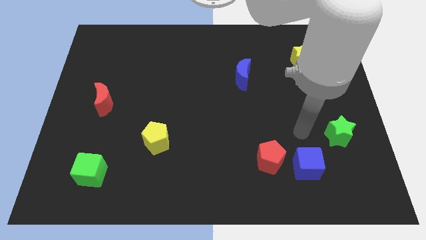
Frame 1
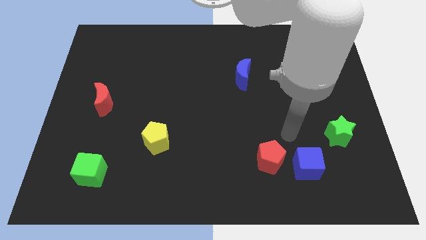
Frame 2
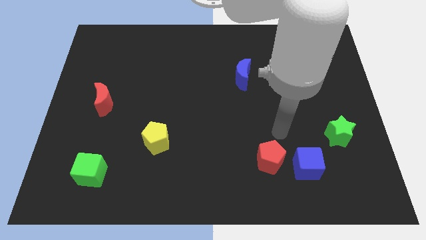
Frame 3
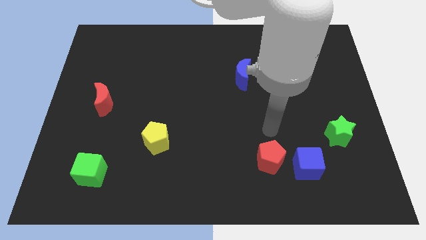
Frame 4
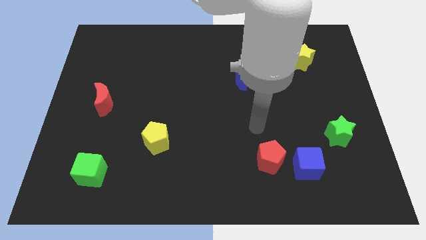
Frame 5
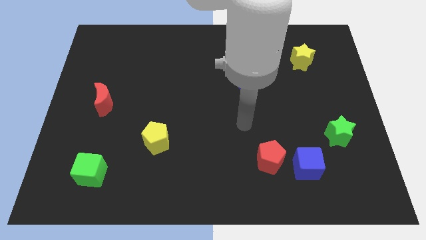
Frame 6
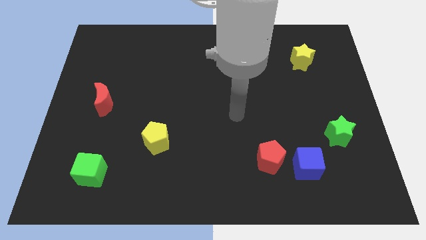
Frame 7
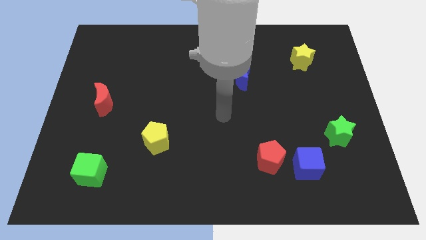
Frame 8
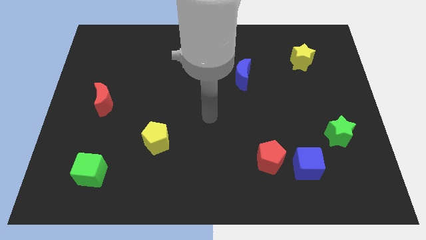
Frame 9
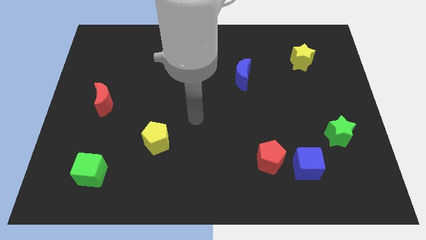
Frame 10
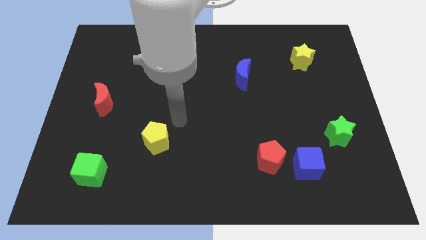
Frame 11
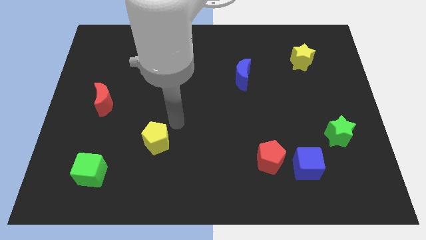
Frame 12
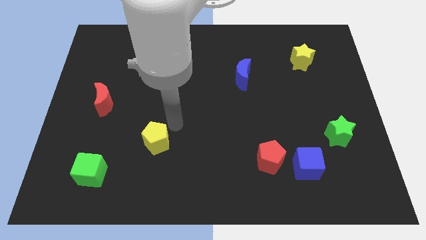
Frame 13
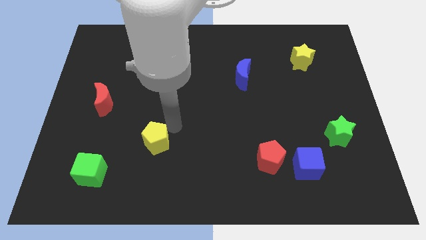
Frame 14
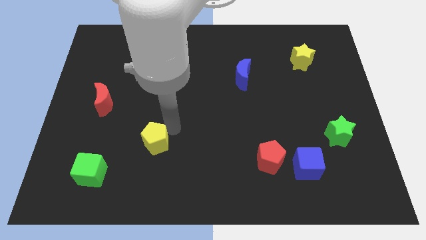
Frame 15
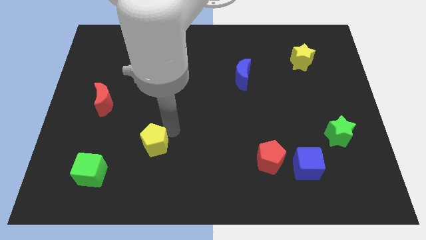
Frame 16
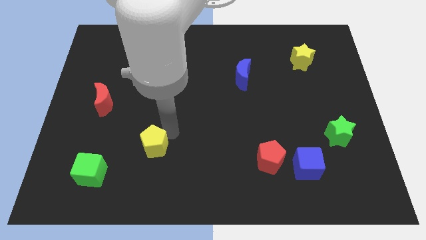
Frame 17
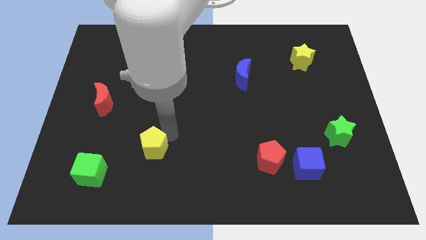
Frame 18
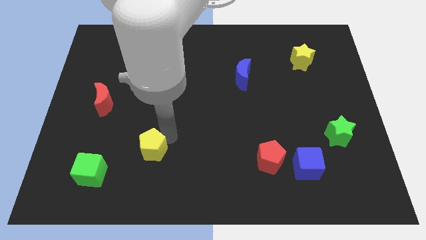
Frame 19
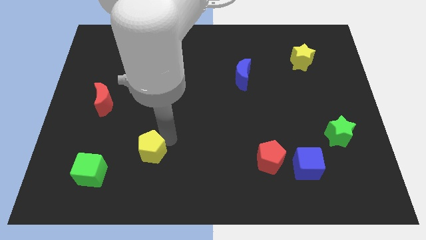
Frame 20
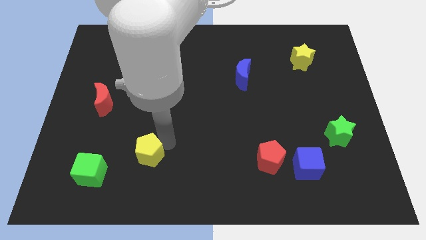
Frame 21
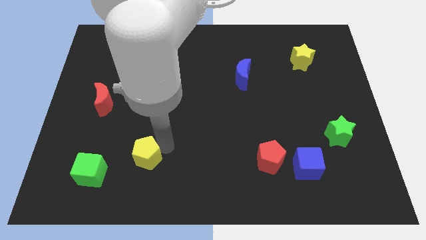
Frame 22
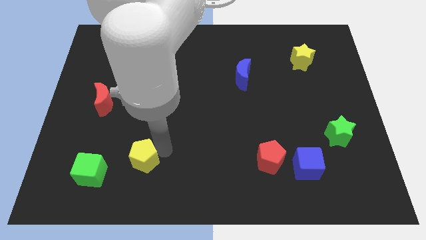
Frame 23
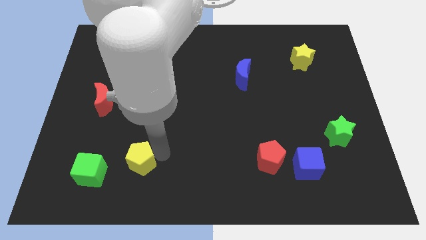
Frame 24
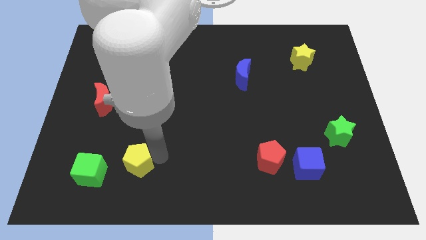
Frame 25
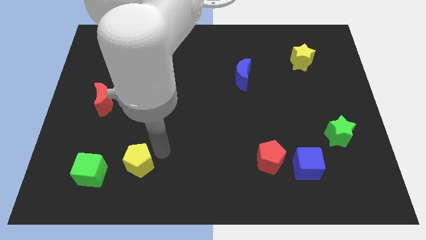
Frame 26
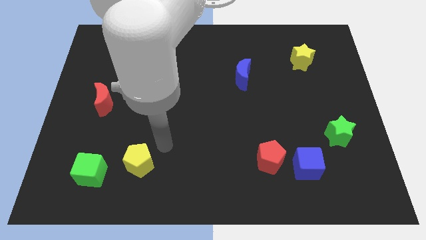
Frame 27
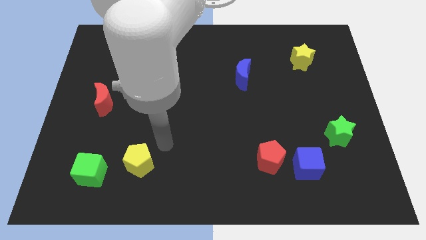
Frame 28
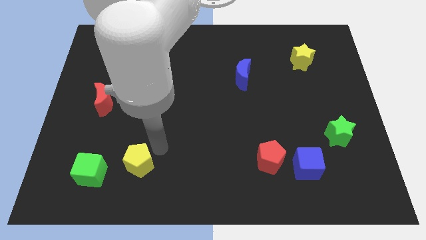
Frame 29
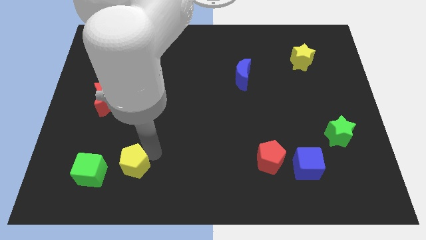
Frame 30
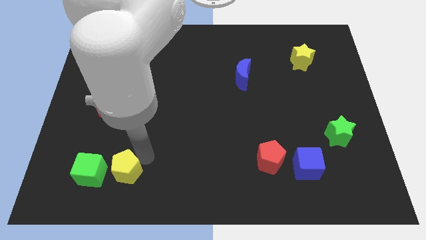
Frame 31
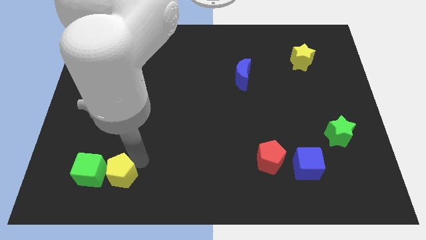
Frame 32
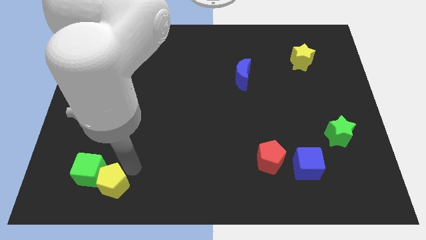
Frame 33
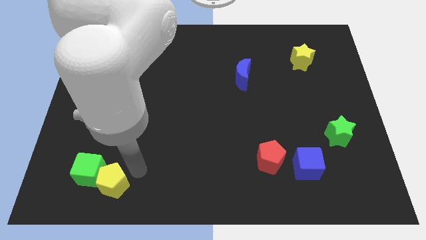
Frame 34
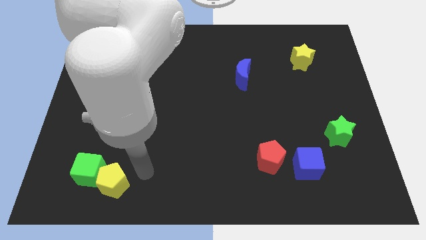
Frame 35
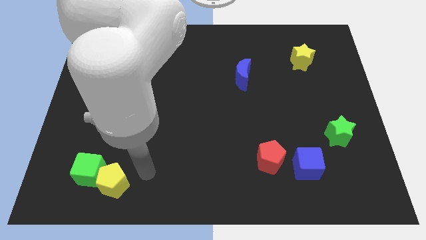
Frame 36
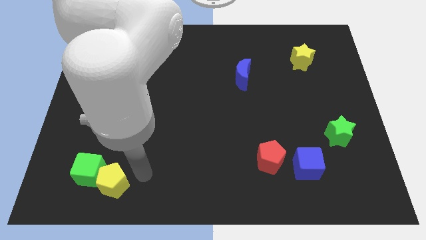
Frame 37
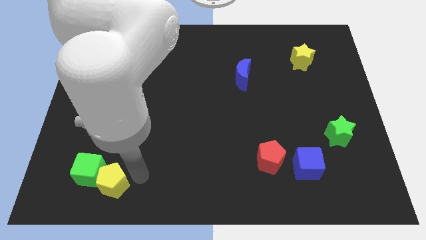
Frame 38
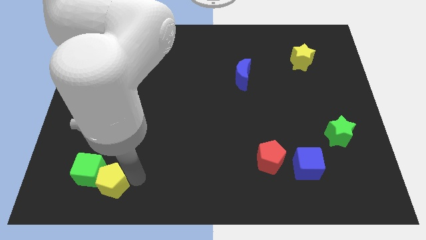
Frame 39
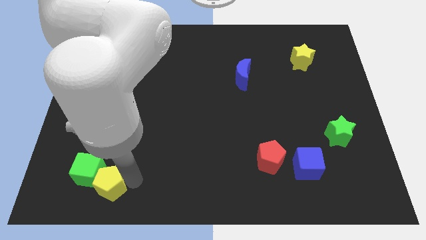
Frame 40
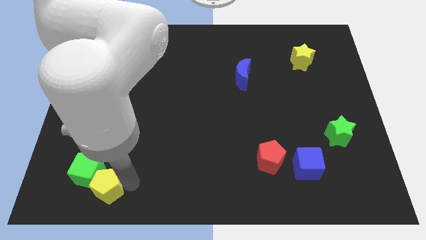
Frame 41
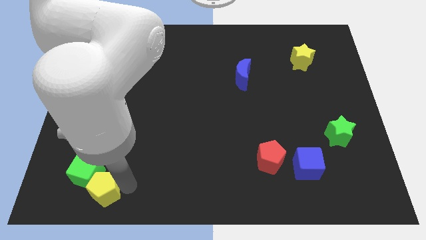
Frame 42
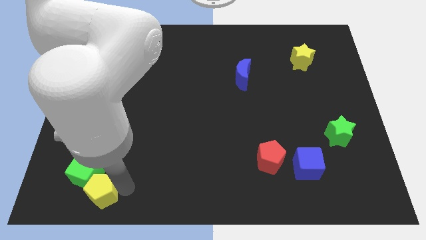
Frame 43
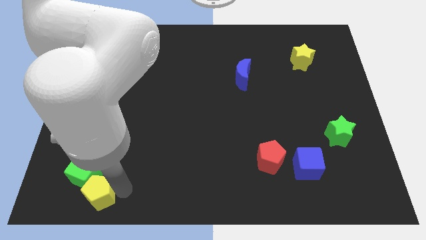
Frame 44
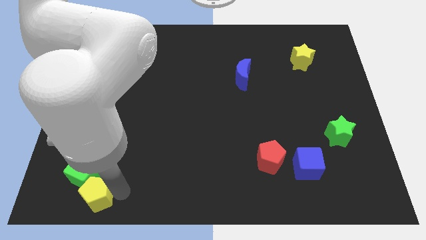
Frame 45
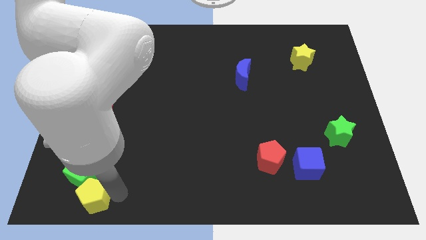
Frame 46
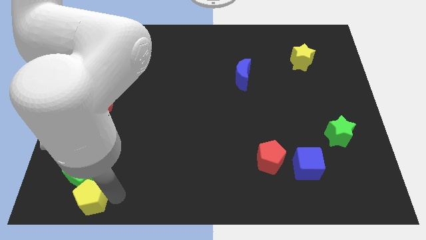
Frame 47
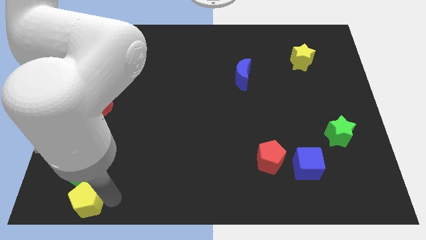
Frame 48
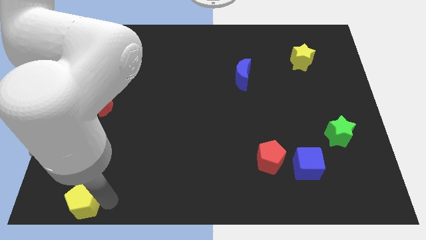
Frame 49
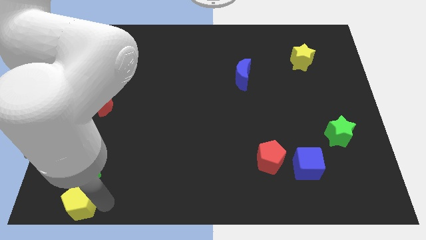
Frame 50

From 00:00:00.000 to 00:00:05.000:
put the yellow pentagon to the bottom left of the board

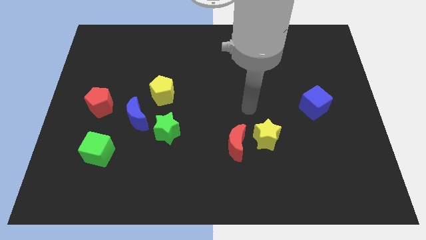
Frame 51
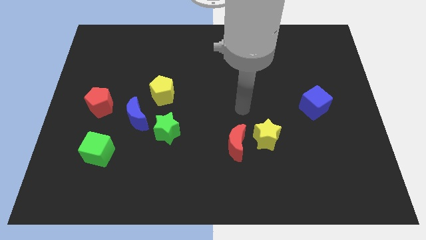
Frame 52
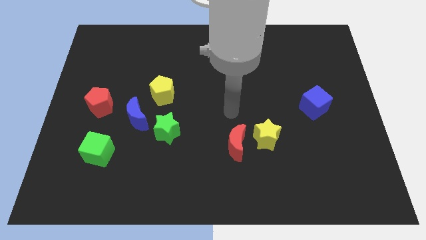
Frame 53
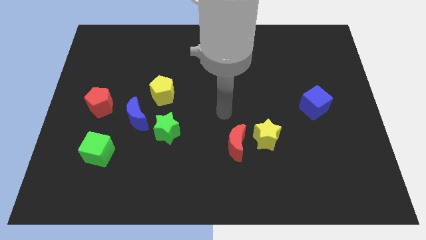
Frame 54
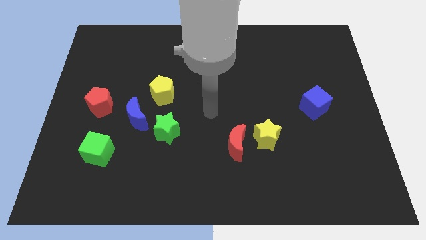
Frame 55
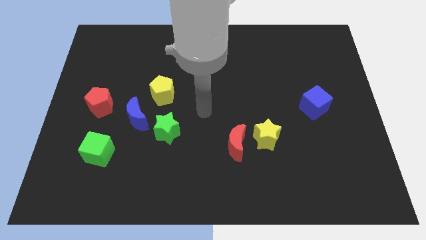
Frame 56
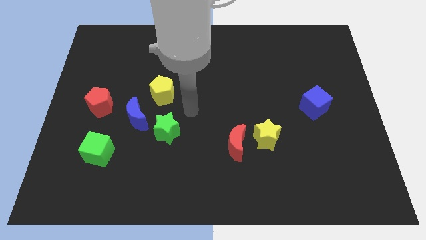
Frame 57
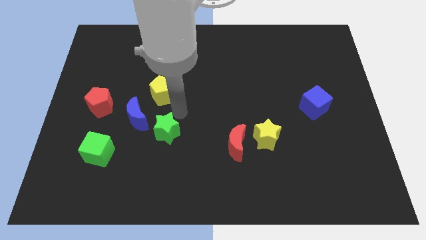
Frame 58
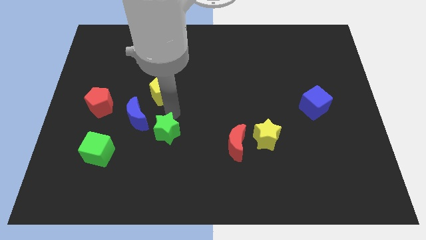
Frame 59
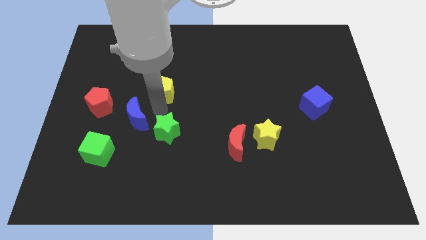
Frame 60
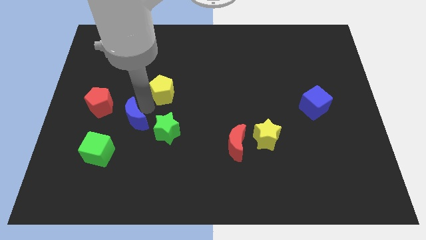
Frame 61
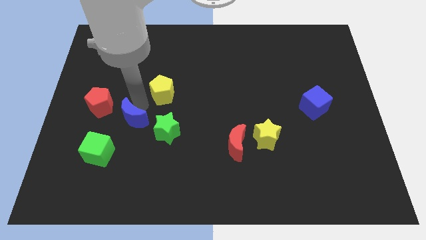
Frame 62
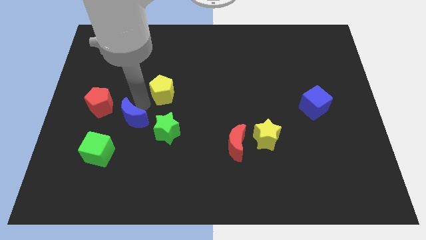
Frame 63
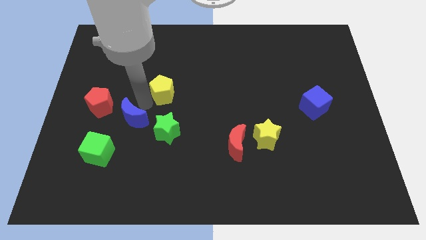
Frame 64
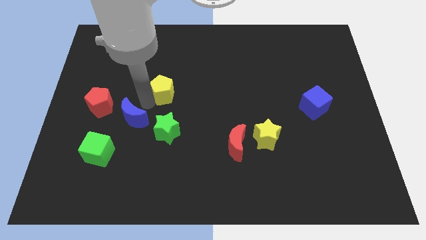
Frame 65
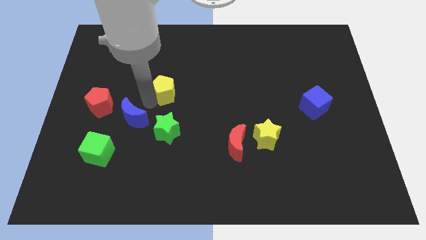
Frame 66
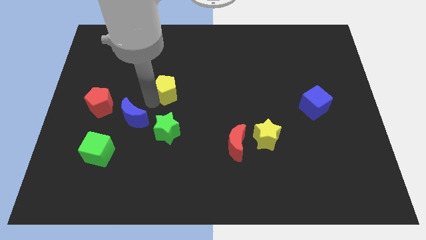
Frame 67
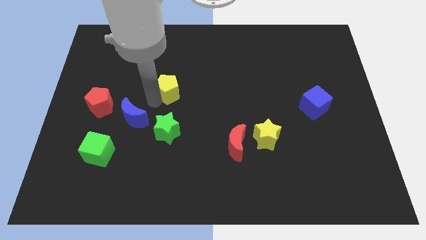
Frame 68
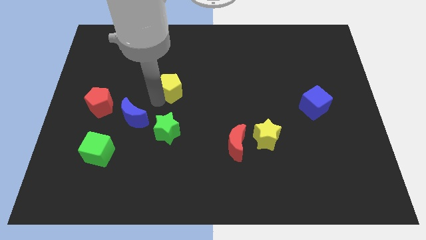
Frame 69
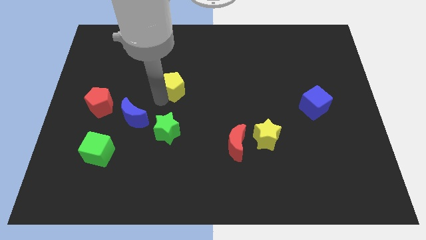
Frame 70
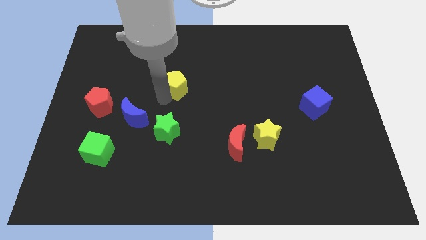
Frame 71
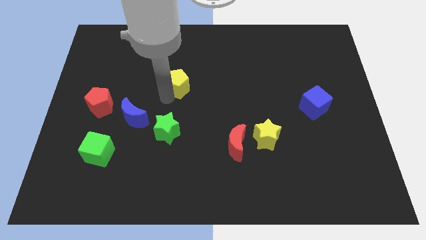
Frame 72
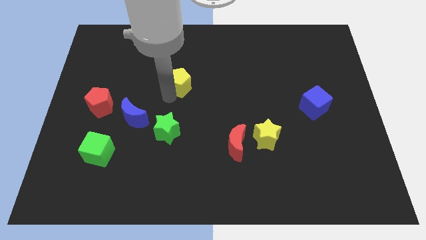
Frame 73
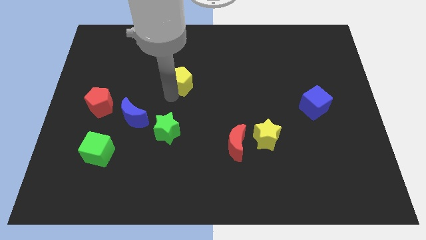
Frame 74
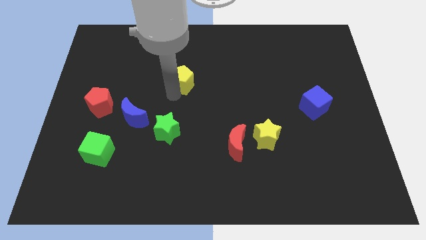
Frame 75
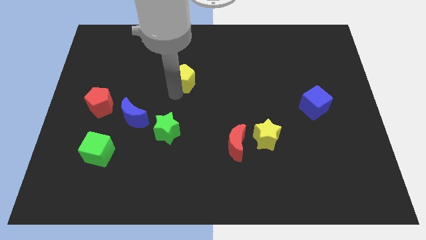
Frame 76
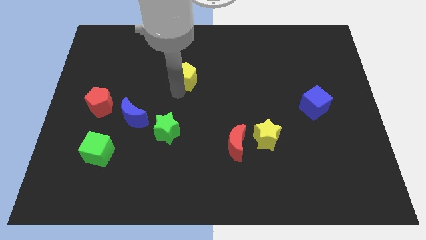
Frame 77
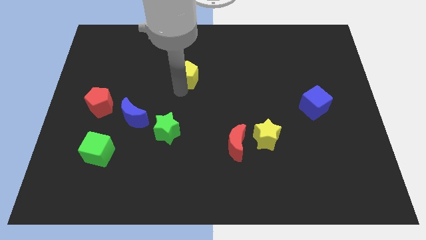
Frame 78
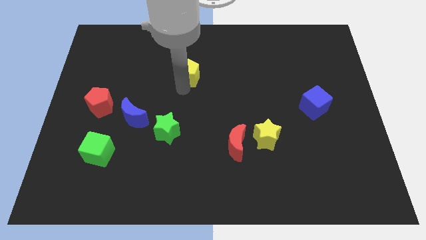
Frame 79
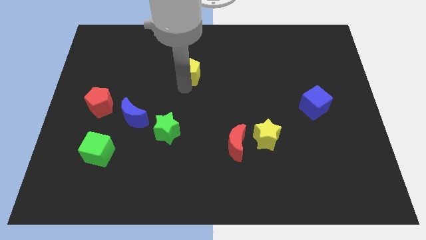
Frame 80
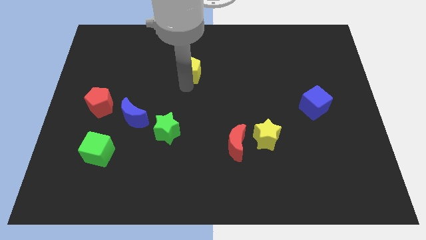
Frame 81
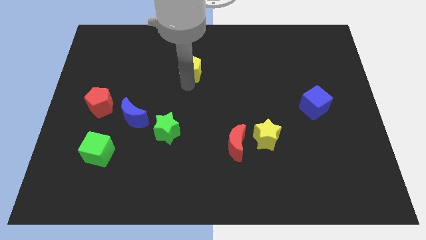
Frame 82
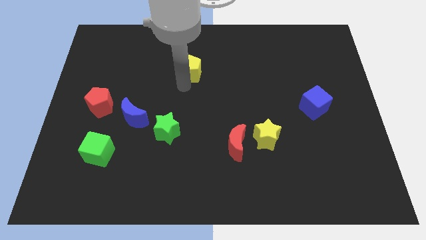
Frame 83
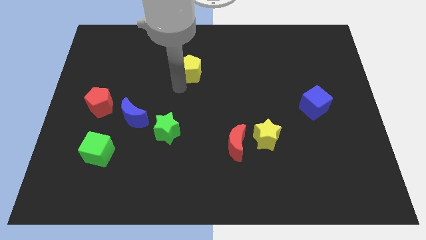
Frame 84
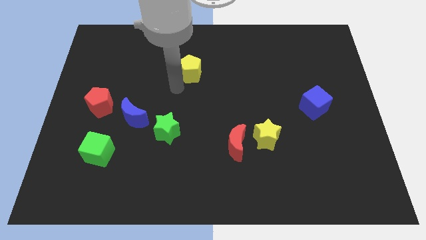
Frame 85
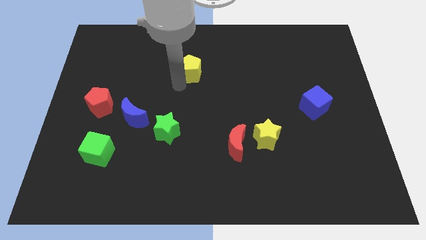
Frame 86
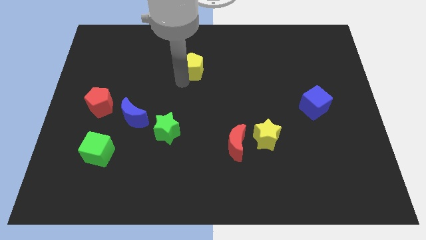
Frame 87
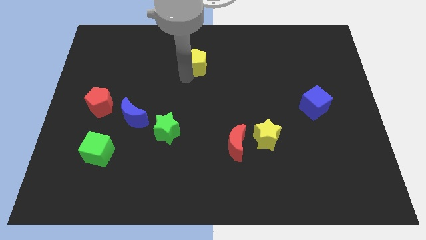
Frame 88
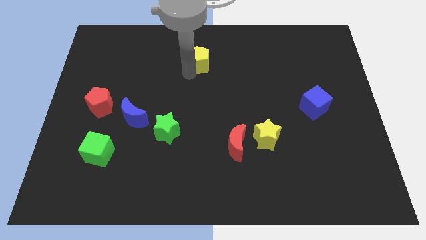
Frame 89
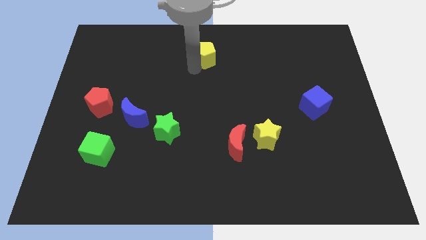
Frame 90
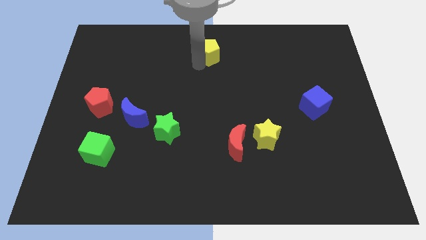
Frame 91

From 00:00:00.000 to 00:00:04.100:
put the yellow pentagon to the towards your base
